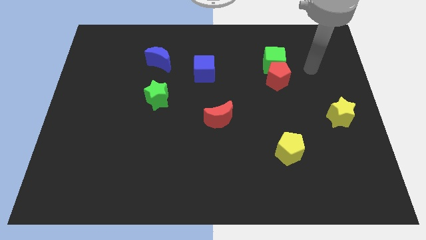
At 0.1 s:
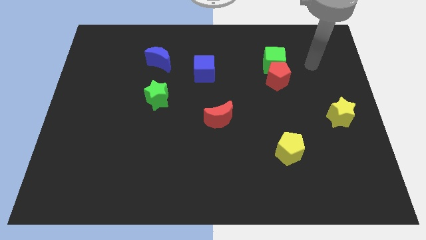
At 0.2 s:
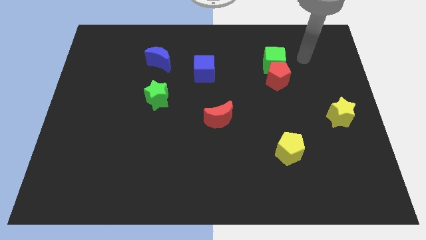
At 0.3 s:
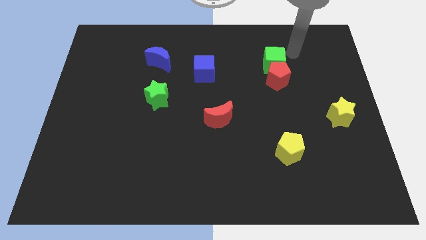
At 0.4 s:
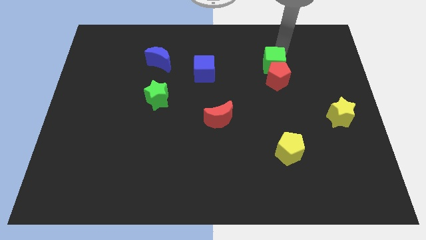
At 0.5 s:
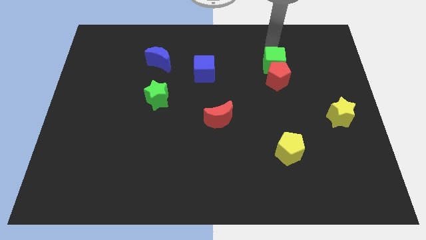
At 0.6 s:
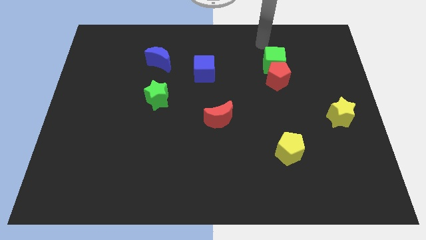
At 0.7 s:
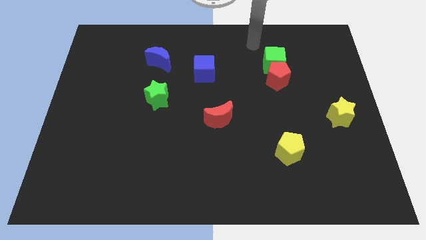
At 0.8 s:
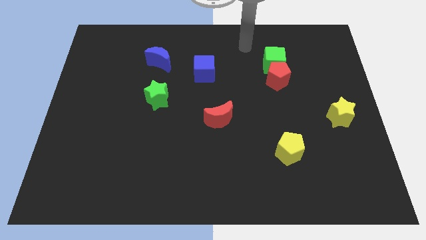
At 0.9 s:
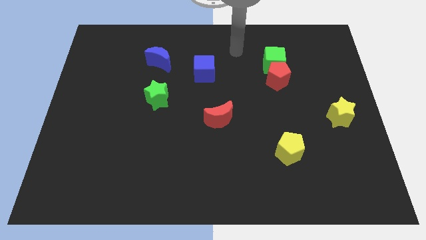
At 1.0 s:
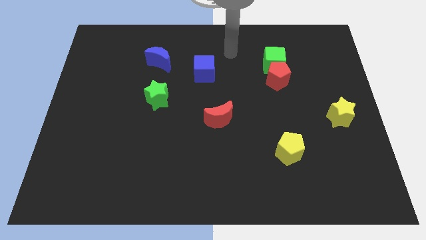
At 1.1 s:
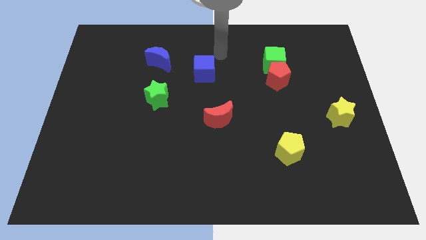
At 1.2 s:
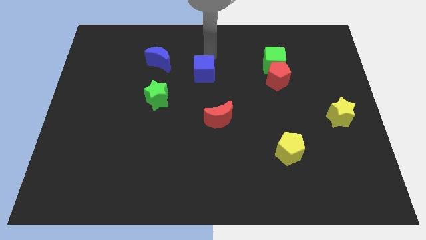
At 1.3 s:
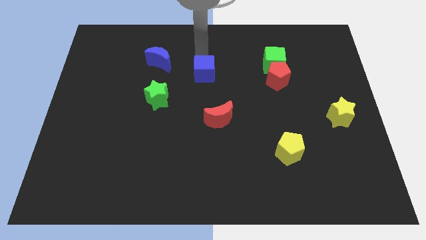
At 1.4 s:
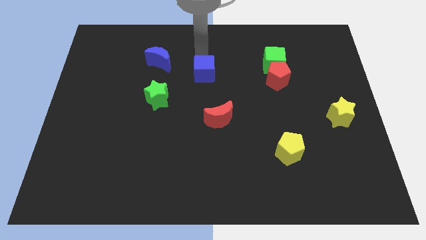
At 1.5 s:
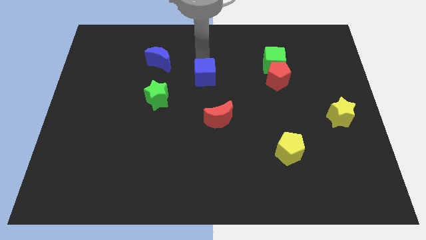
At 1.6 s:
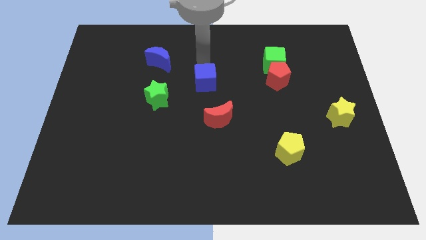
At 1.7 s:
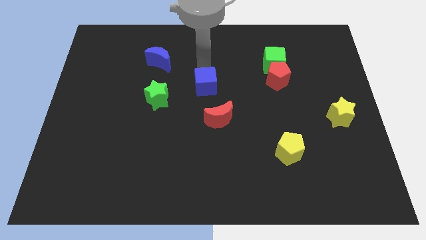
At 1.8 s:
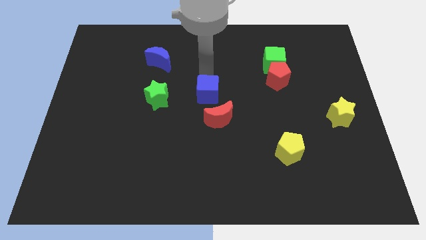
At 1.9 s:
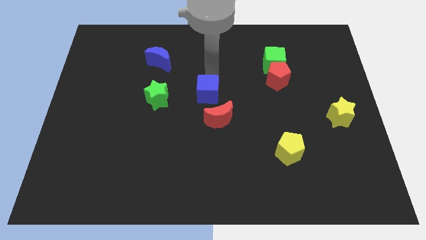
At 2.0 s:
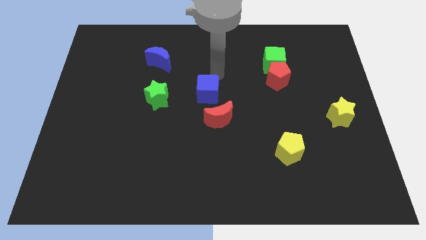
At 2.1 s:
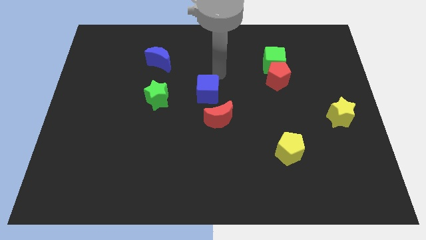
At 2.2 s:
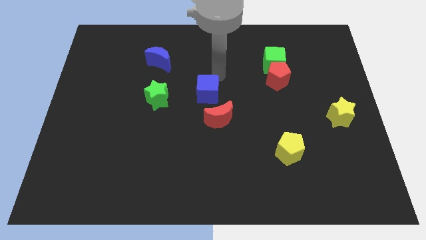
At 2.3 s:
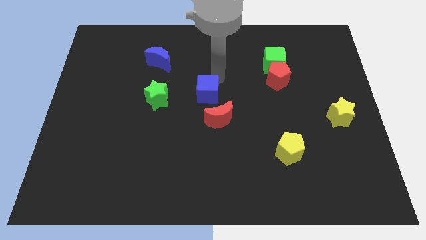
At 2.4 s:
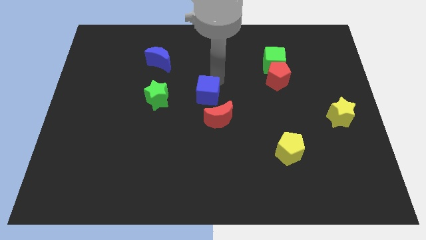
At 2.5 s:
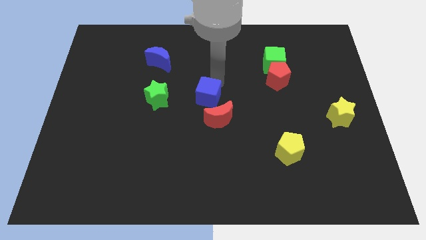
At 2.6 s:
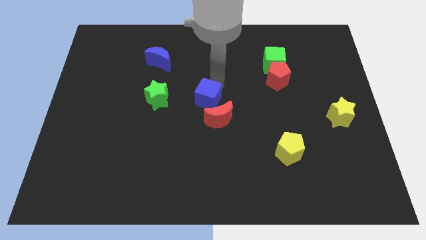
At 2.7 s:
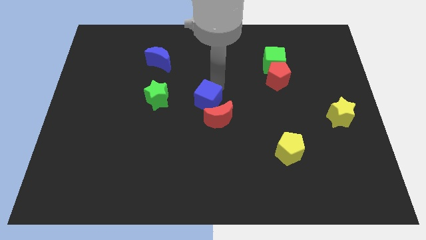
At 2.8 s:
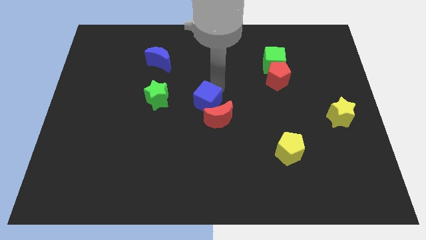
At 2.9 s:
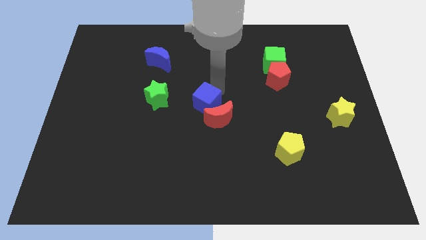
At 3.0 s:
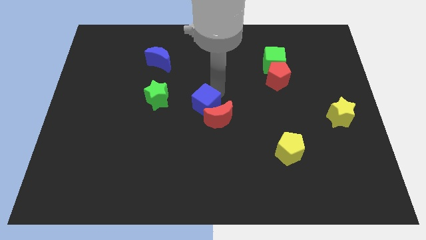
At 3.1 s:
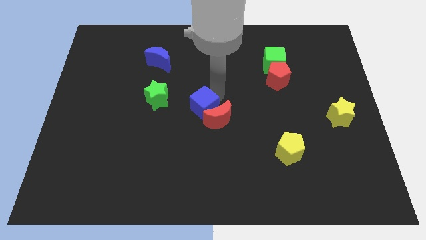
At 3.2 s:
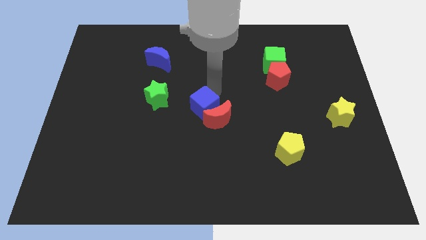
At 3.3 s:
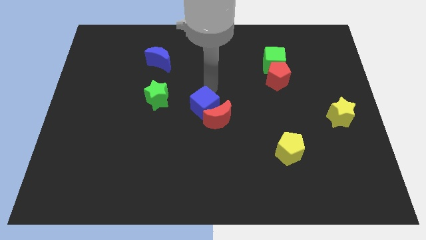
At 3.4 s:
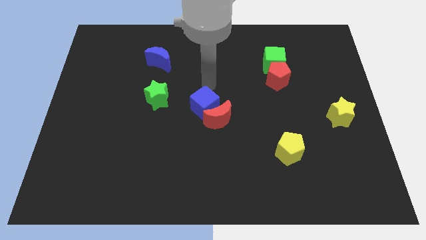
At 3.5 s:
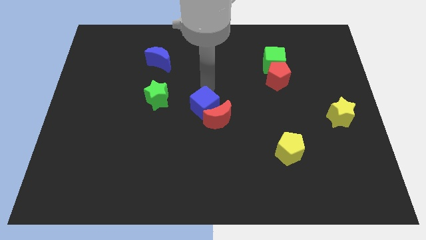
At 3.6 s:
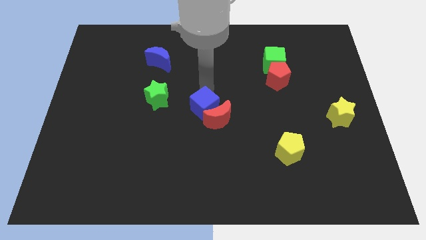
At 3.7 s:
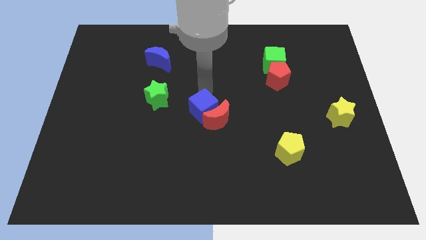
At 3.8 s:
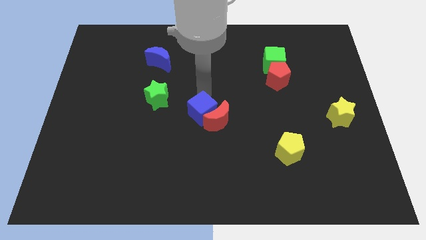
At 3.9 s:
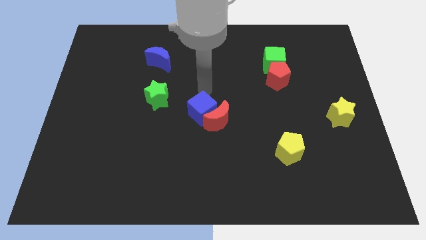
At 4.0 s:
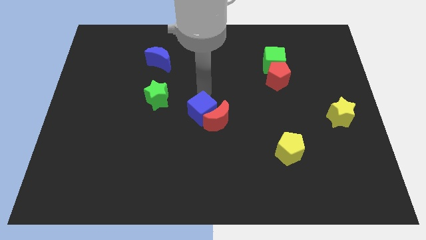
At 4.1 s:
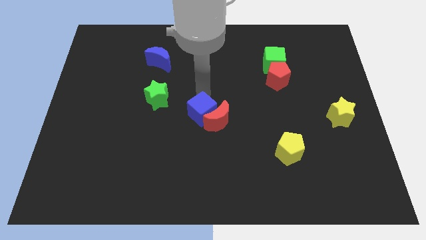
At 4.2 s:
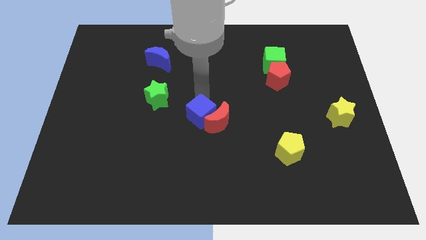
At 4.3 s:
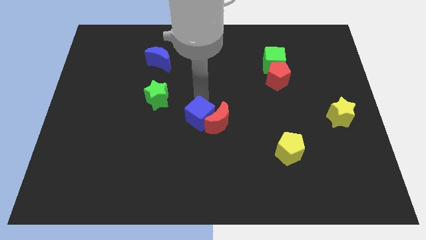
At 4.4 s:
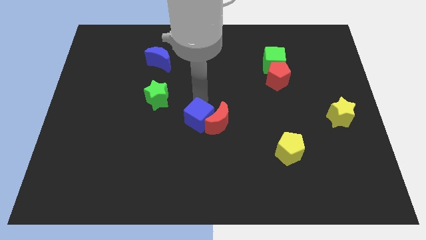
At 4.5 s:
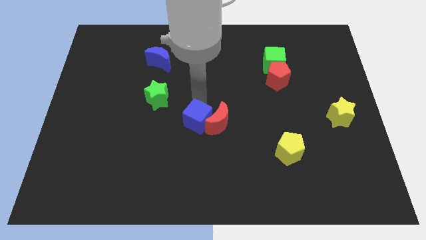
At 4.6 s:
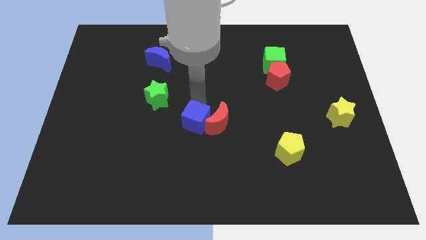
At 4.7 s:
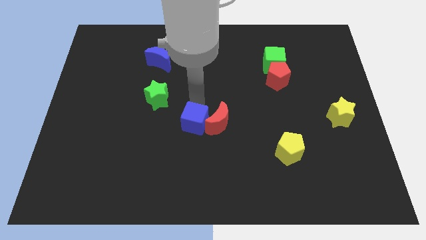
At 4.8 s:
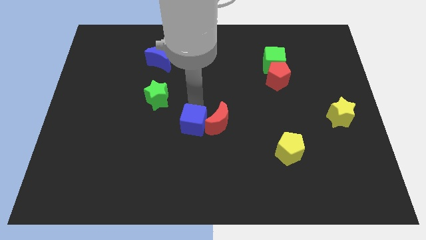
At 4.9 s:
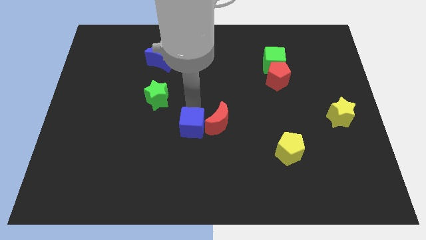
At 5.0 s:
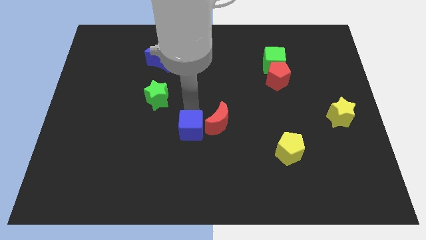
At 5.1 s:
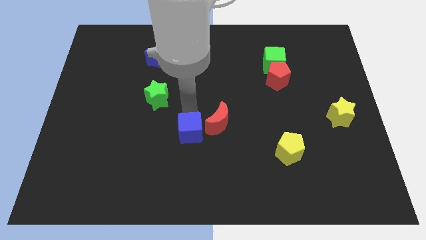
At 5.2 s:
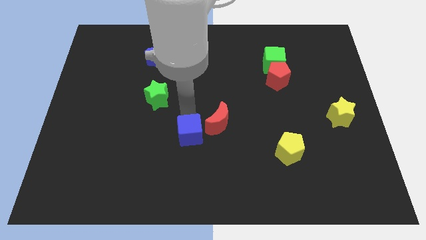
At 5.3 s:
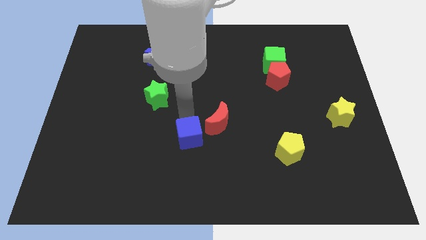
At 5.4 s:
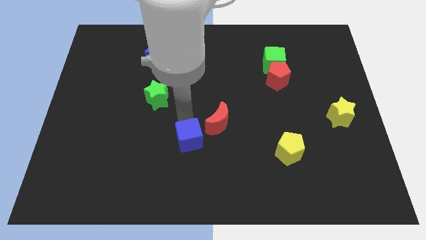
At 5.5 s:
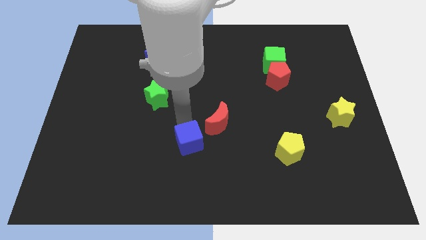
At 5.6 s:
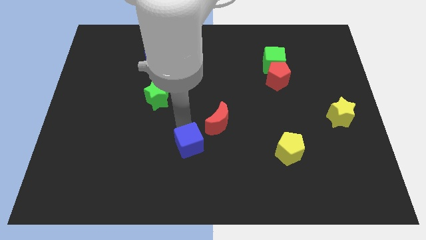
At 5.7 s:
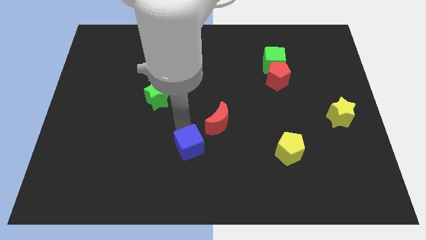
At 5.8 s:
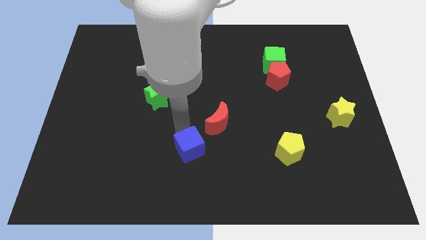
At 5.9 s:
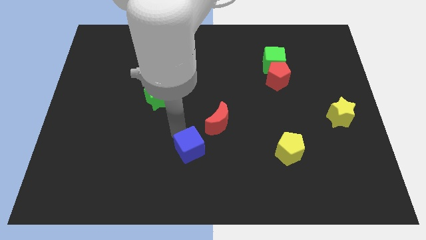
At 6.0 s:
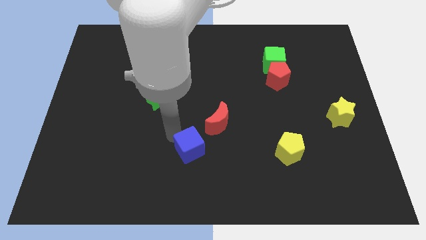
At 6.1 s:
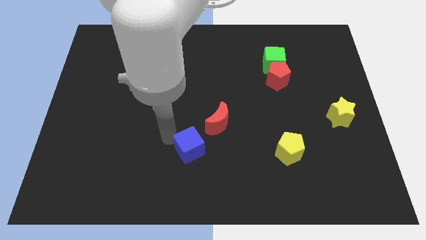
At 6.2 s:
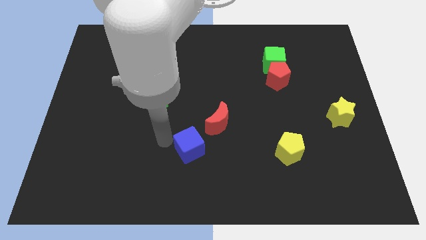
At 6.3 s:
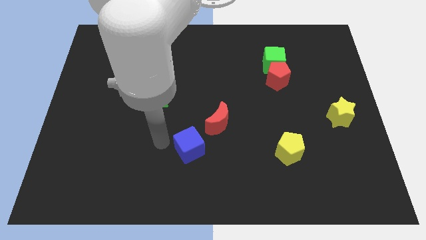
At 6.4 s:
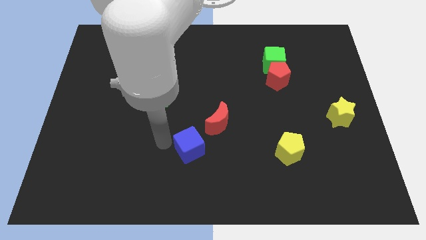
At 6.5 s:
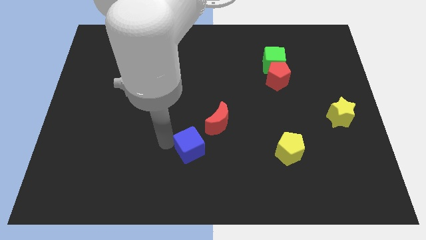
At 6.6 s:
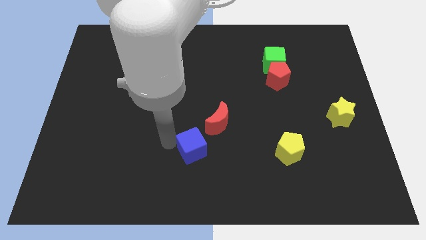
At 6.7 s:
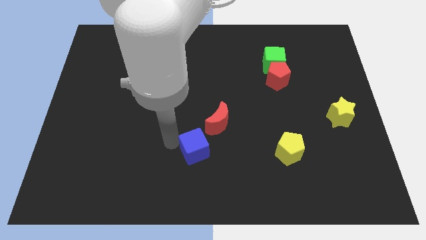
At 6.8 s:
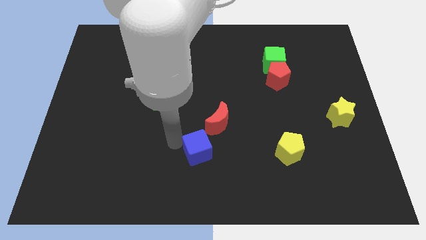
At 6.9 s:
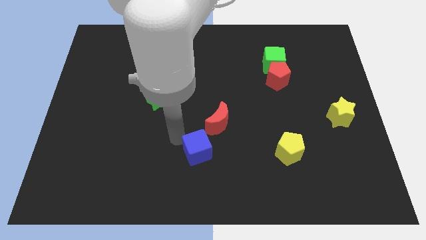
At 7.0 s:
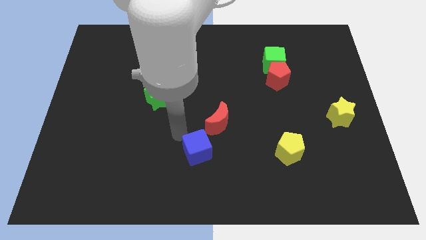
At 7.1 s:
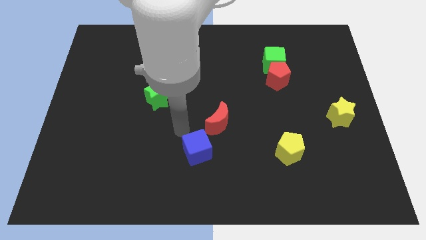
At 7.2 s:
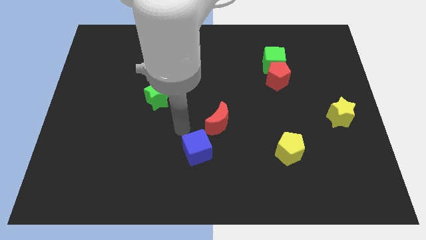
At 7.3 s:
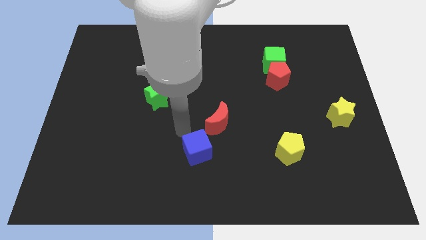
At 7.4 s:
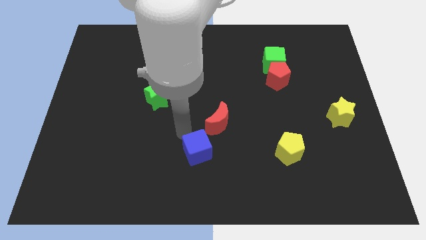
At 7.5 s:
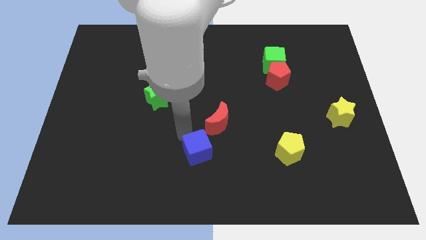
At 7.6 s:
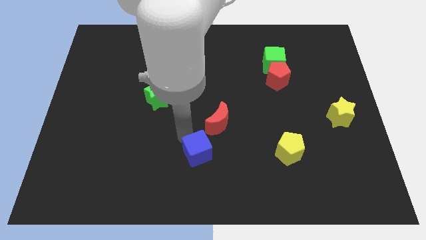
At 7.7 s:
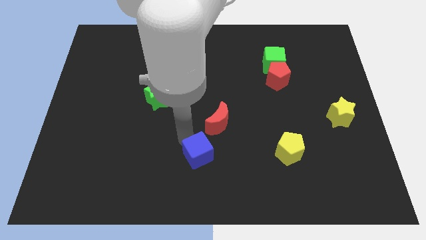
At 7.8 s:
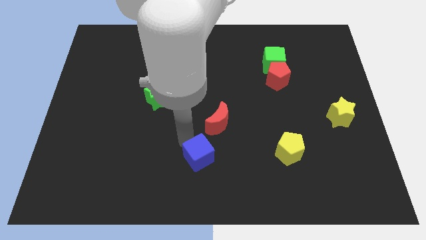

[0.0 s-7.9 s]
put the blue cube to the bottom side
